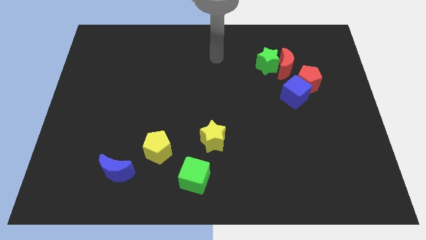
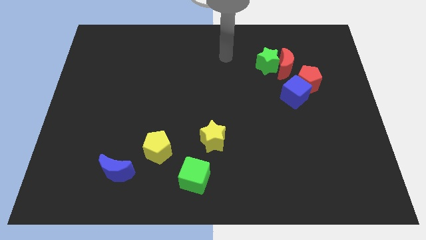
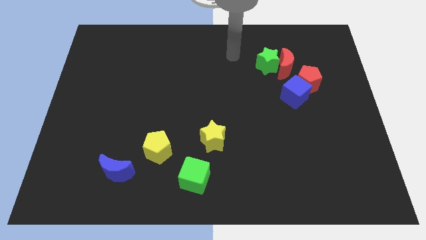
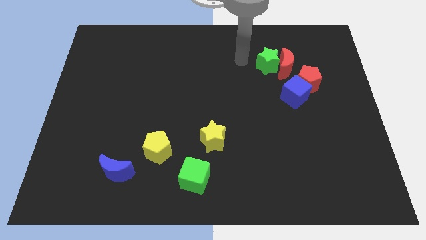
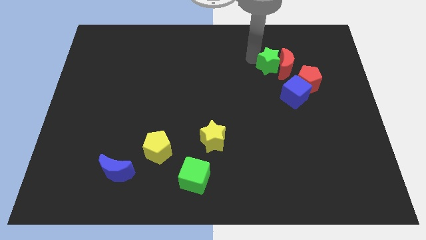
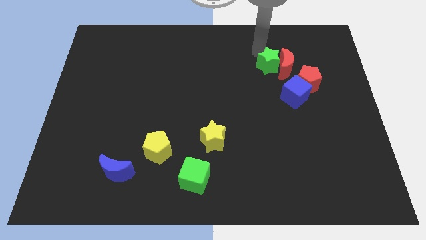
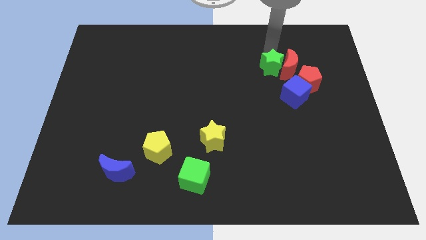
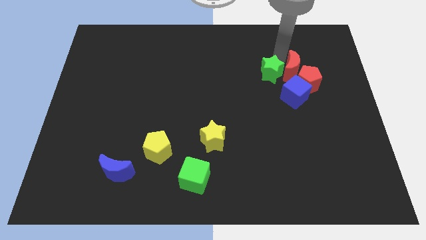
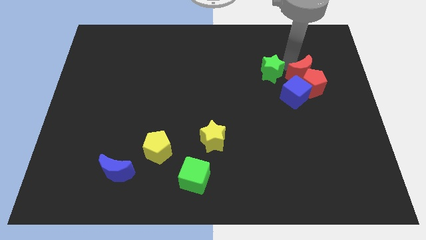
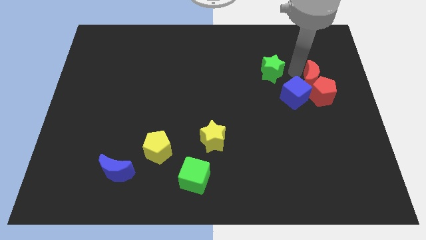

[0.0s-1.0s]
move the green star away from the red moon

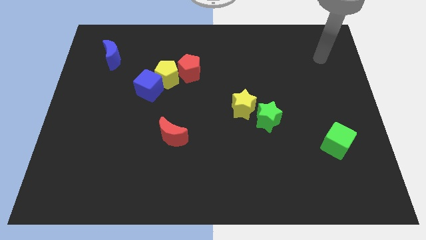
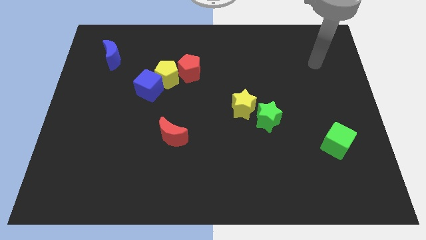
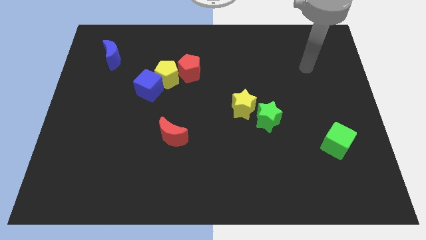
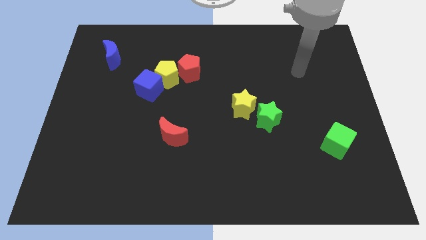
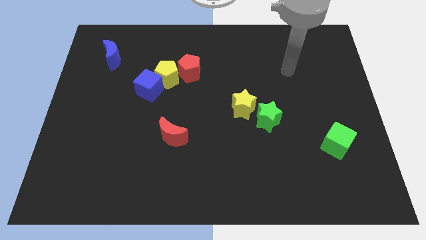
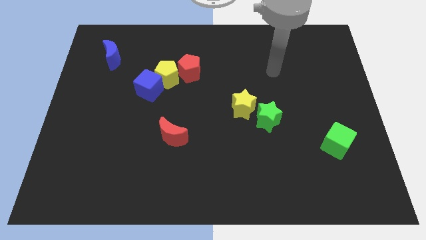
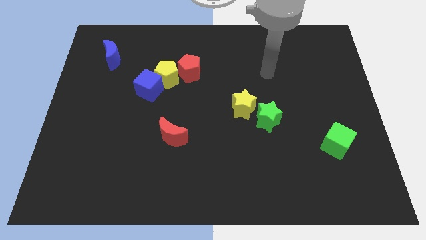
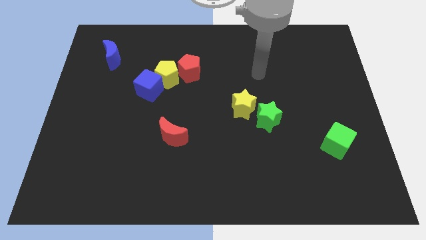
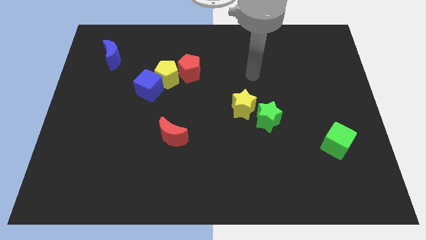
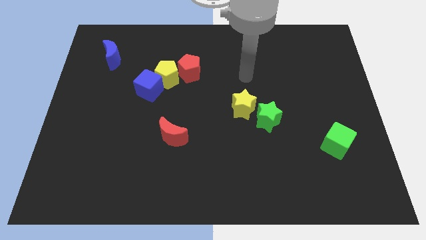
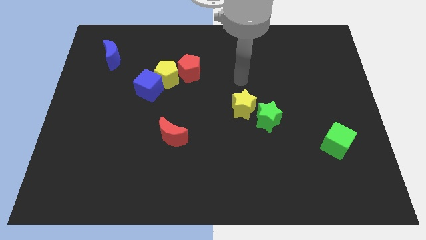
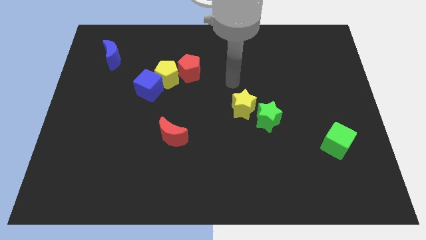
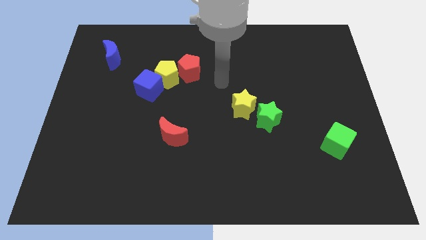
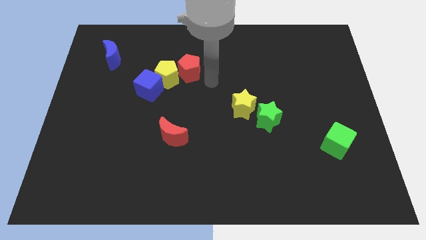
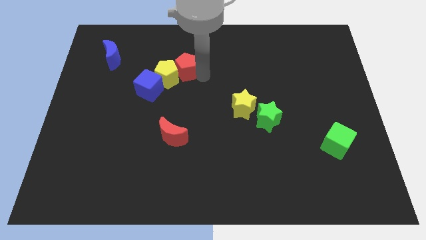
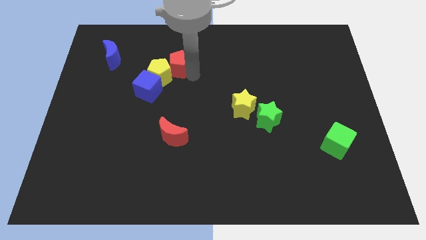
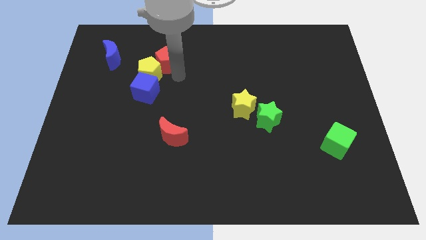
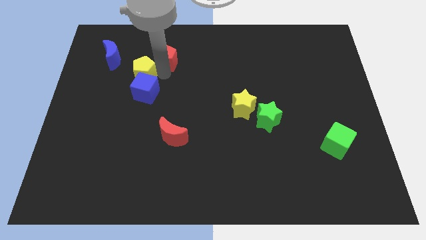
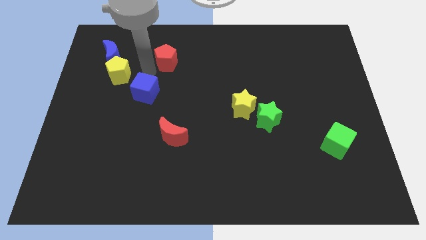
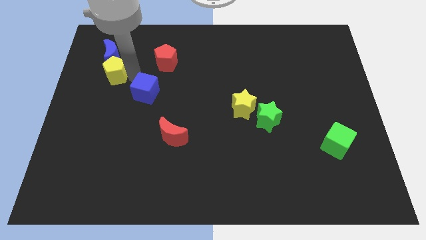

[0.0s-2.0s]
pull the blue cube apart from the yellow pentagon

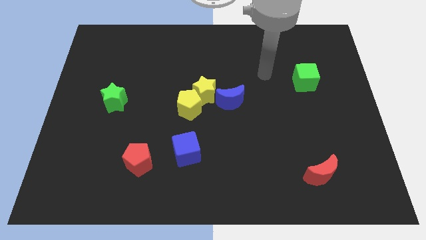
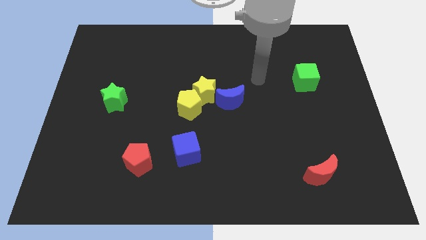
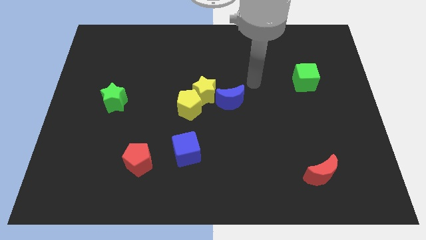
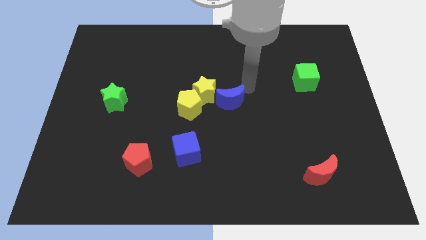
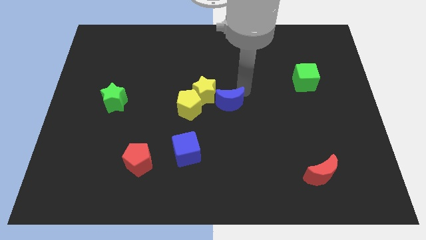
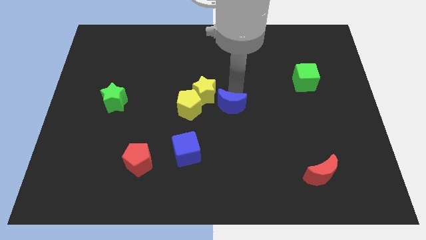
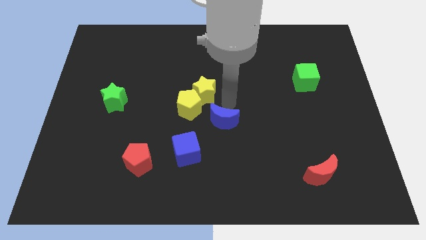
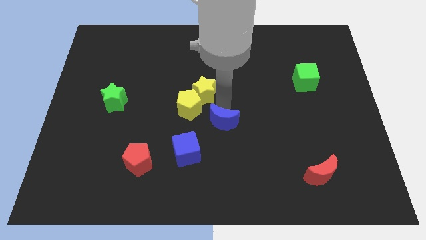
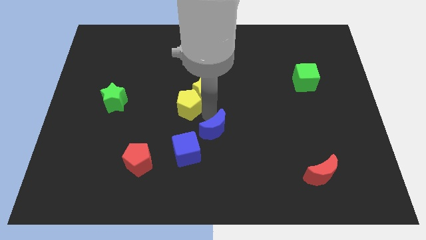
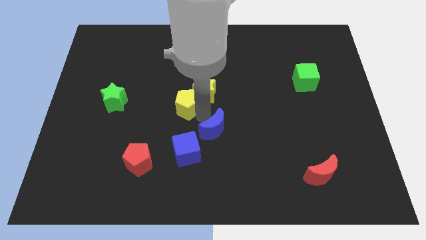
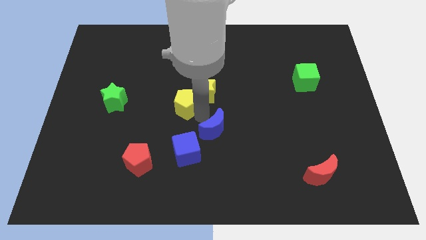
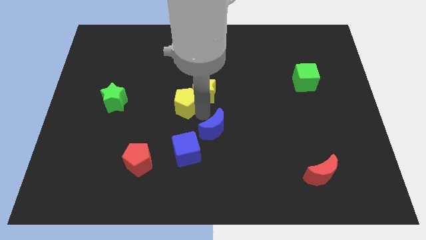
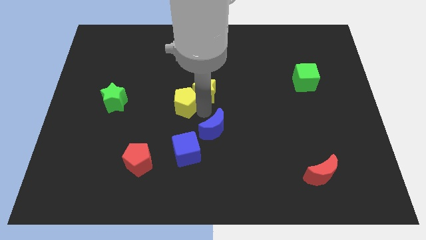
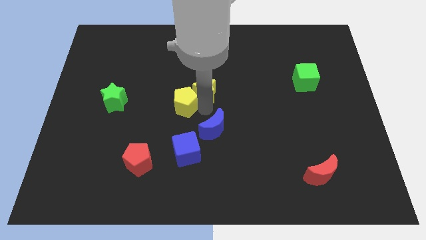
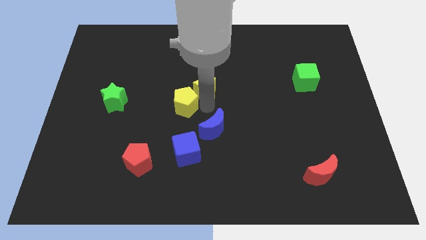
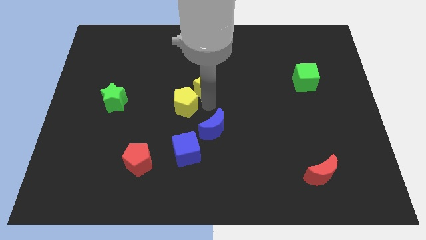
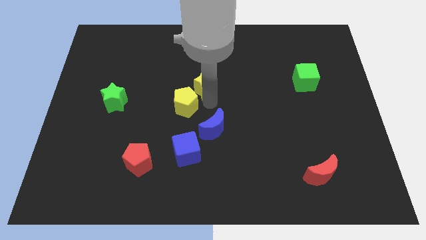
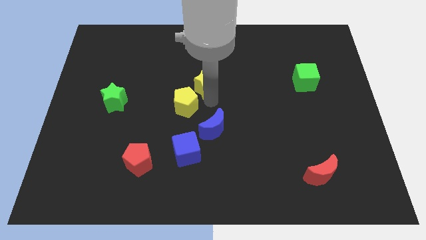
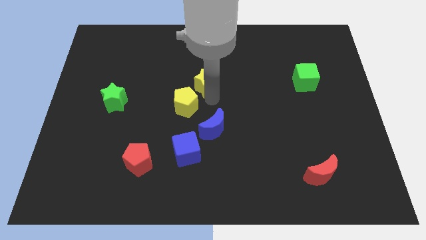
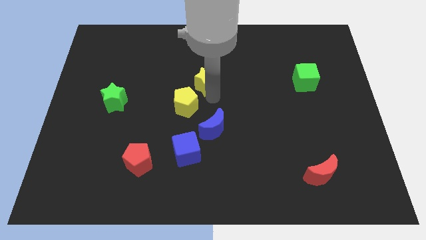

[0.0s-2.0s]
move the yellow star away from the yellow pentagon and blue moon

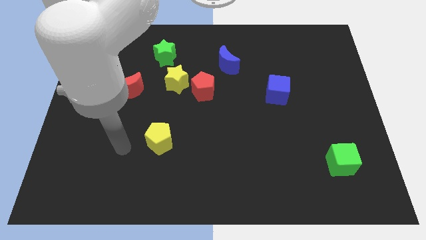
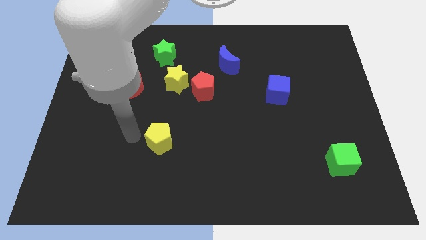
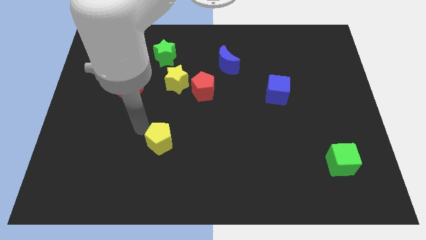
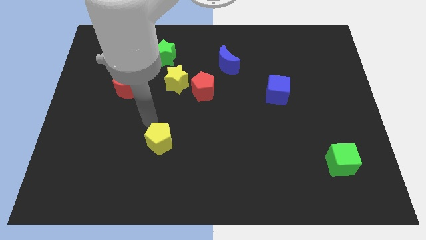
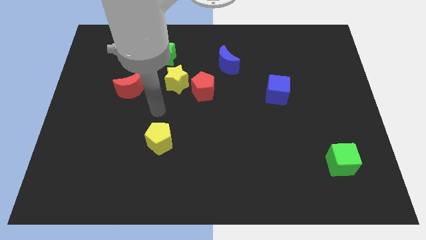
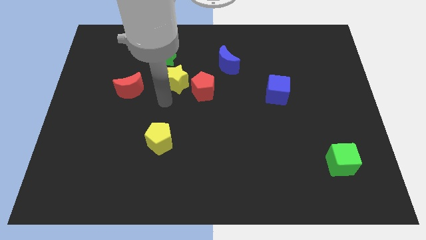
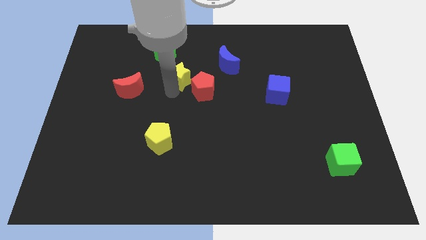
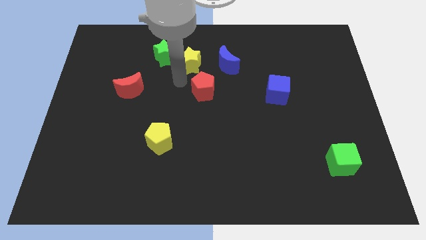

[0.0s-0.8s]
pull the red pentagon apart from the yellow star

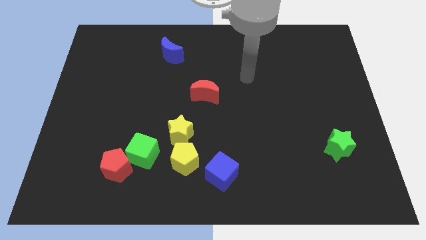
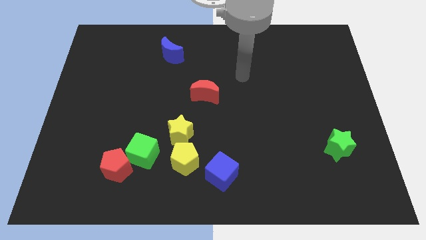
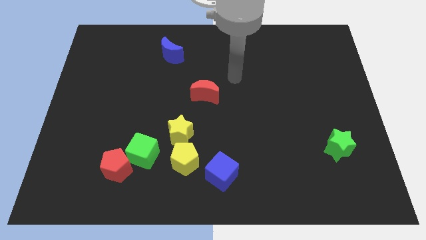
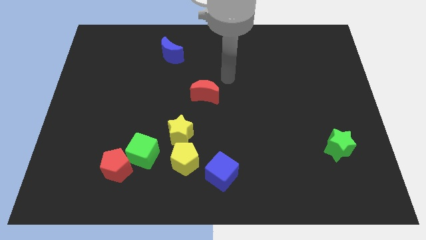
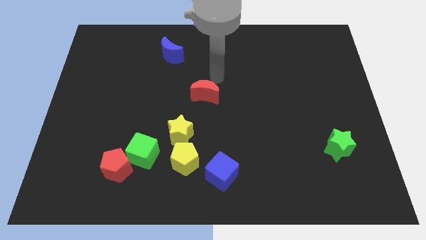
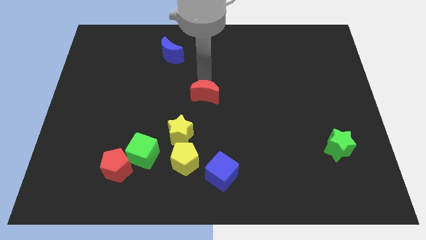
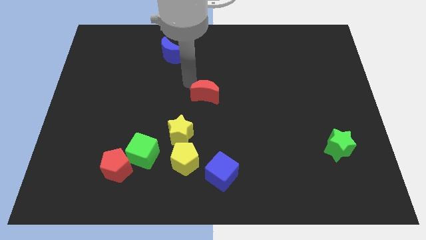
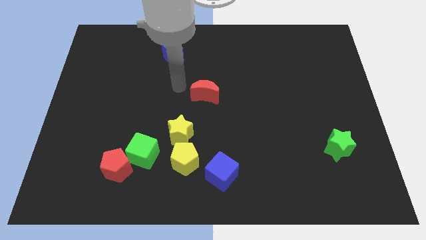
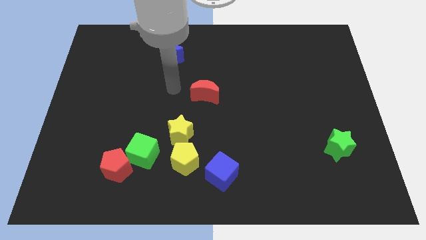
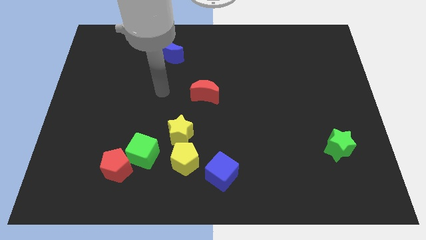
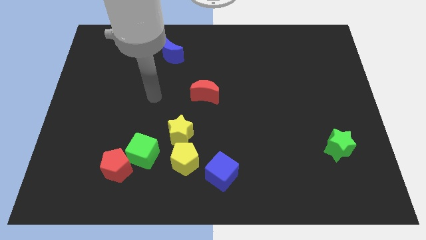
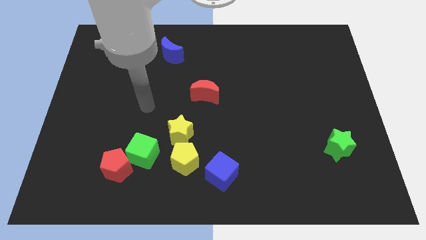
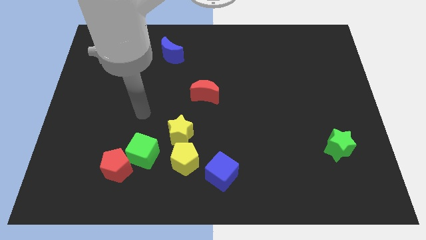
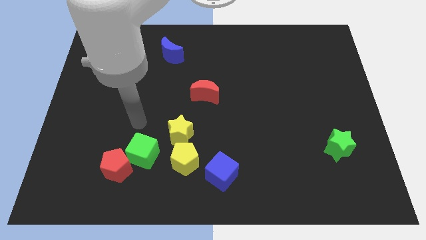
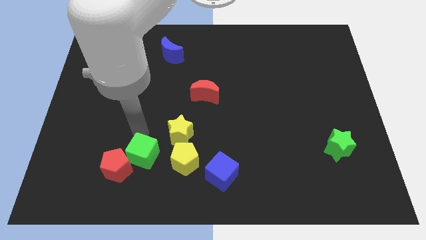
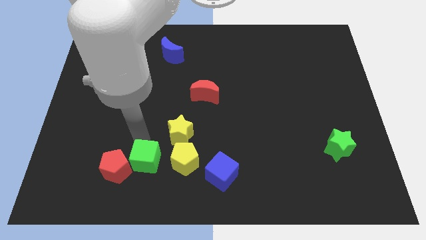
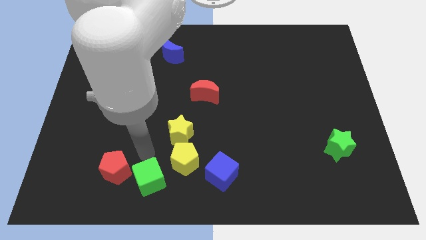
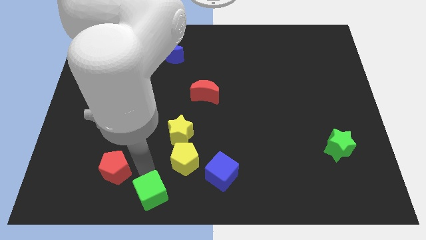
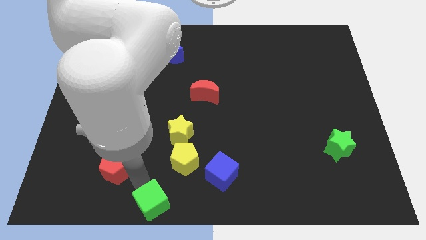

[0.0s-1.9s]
move the red pentagon away from the green cube

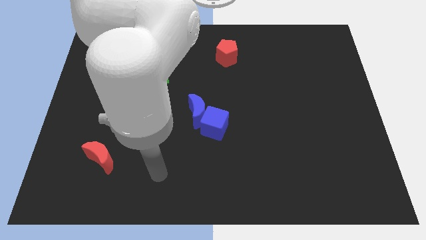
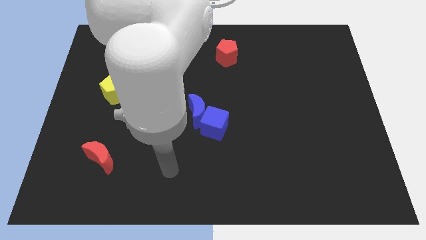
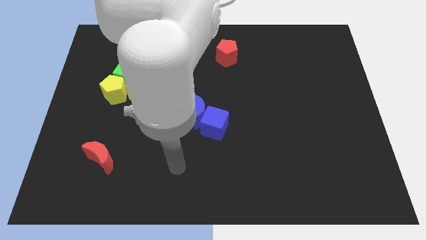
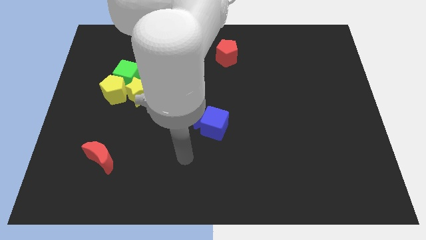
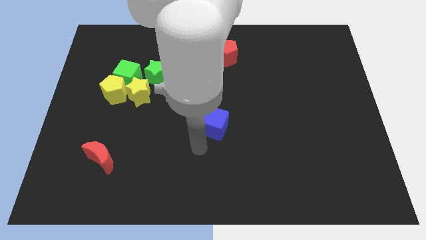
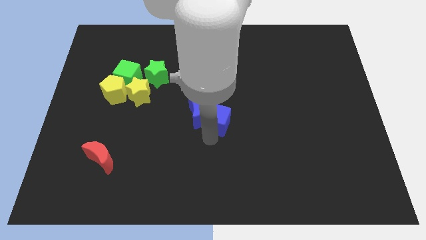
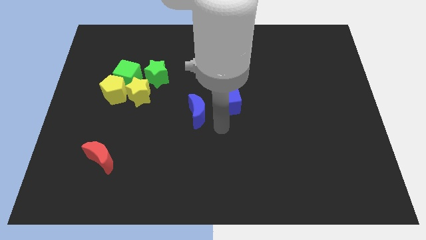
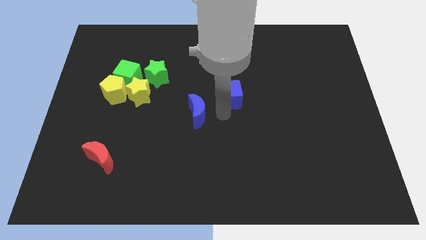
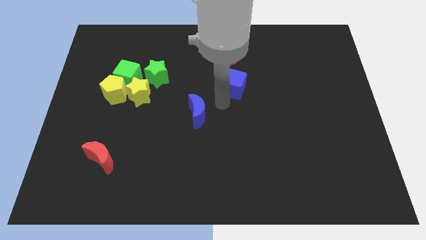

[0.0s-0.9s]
separate the blue moon from the blue cube

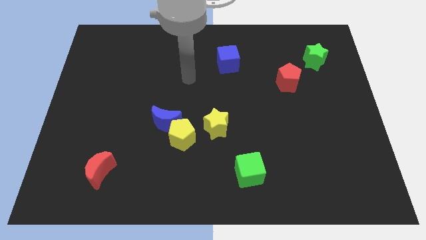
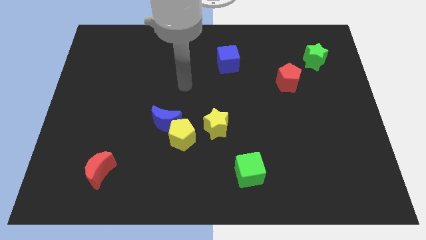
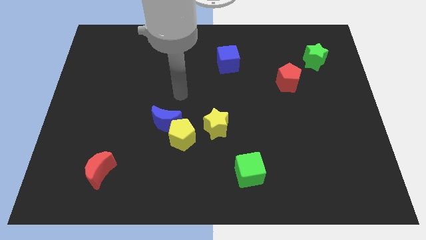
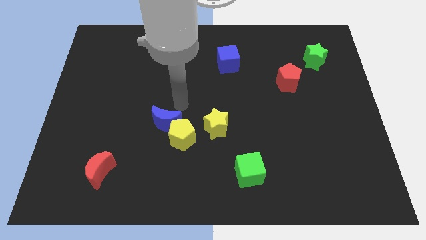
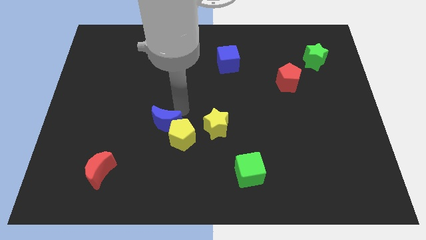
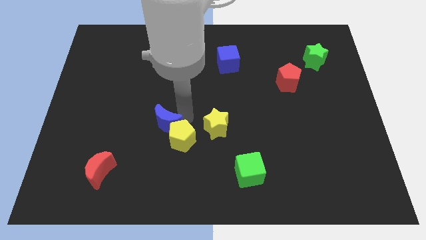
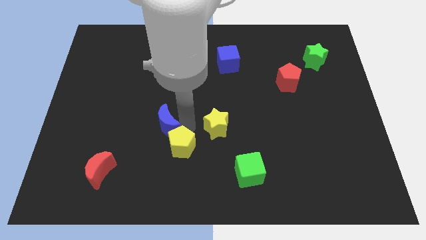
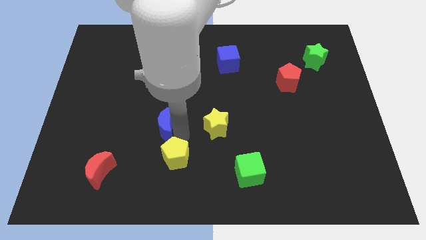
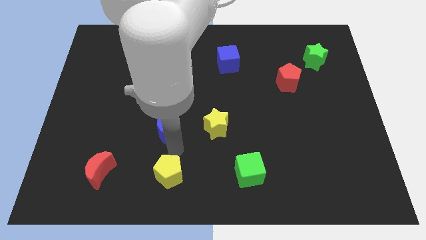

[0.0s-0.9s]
move the blue moon away from the yellow pentagon

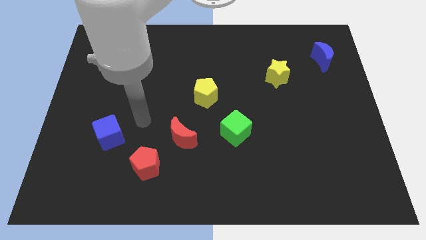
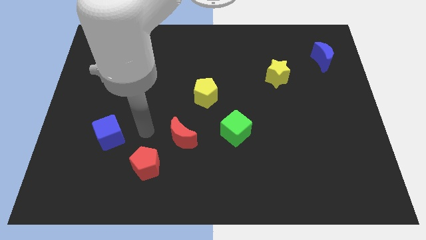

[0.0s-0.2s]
pull the red moon apart from the red pentagon
